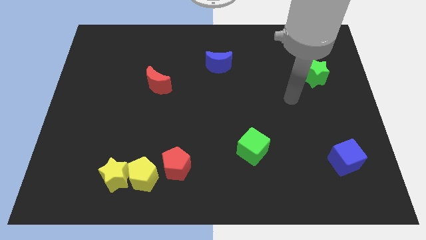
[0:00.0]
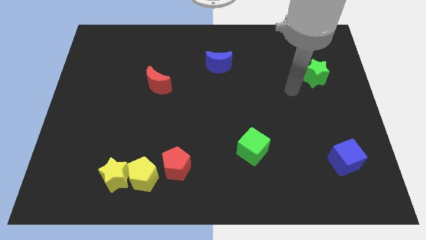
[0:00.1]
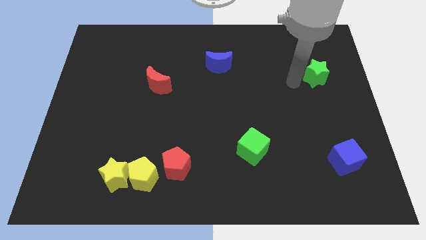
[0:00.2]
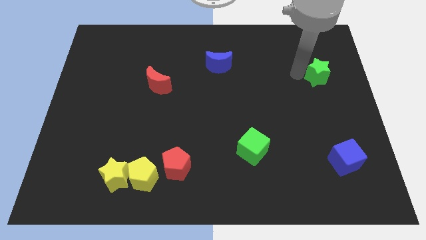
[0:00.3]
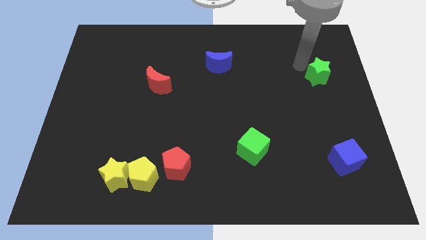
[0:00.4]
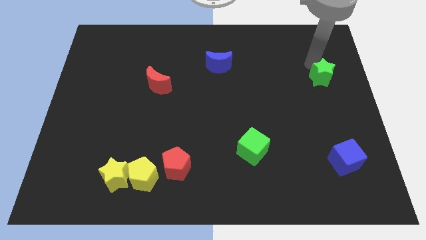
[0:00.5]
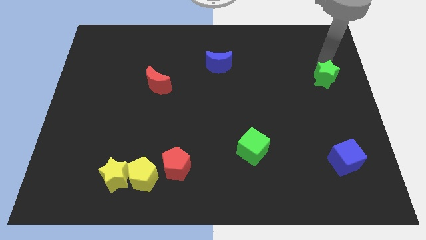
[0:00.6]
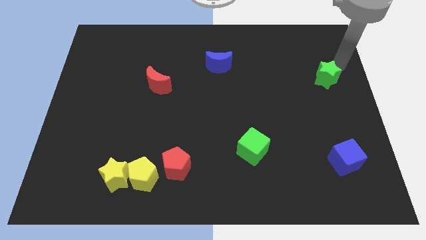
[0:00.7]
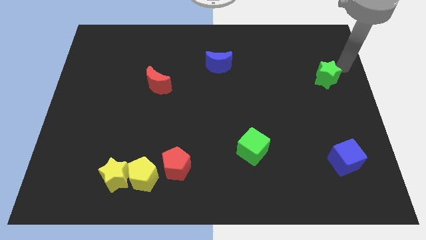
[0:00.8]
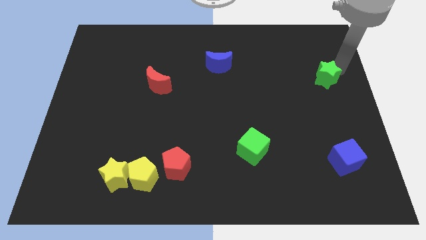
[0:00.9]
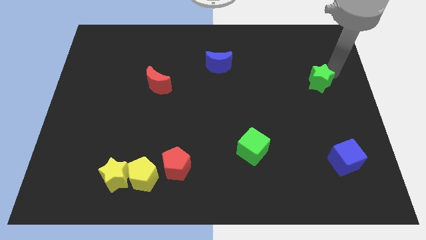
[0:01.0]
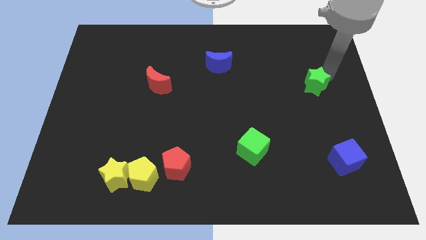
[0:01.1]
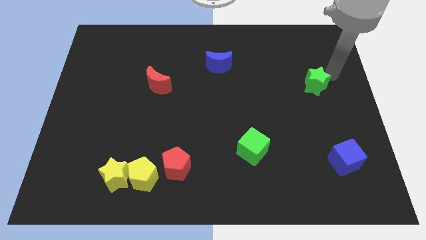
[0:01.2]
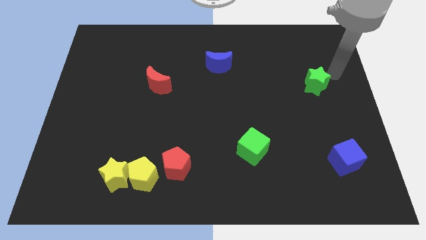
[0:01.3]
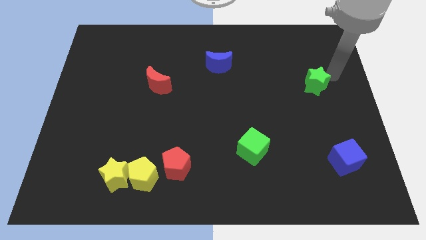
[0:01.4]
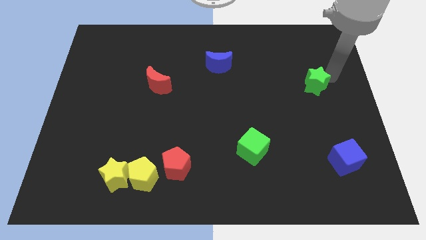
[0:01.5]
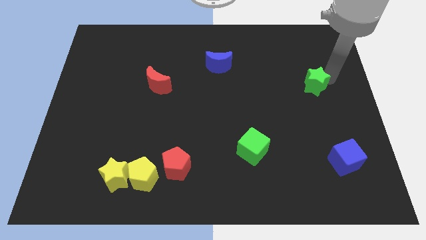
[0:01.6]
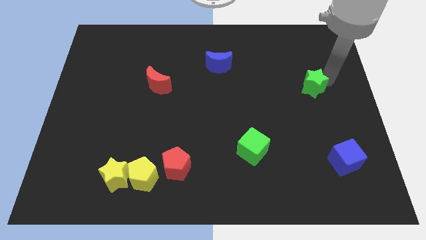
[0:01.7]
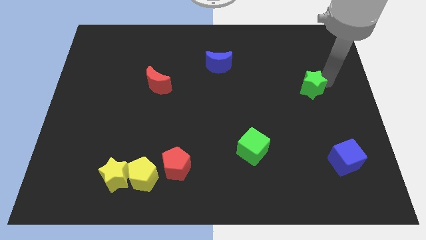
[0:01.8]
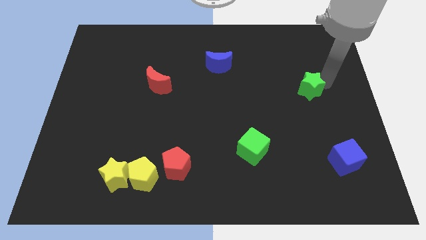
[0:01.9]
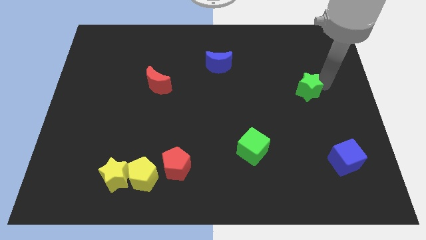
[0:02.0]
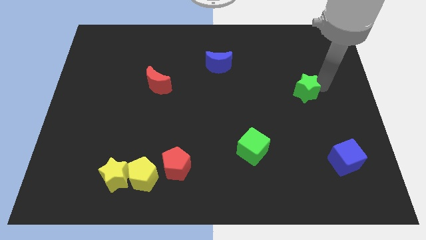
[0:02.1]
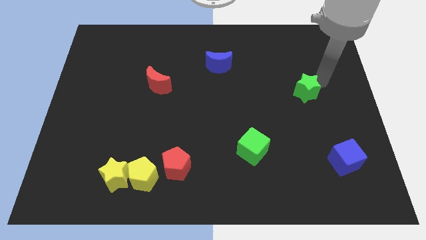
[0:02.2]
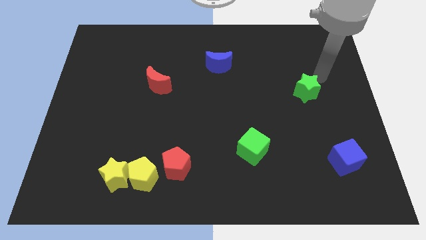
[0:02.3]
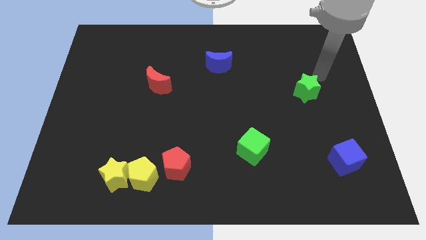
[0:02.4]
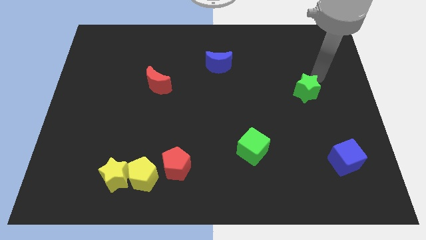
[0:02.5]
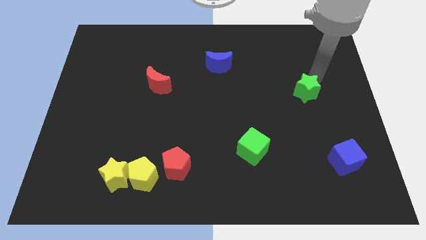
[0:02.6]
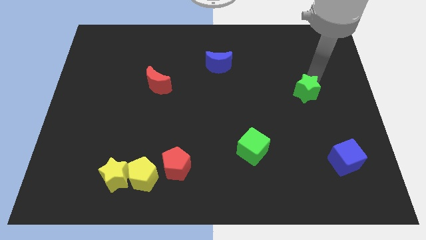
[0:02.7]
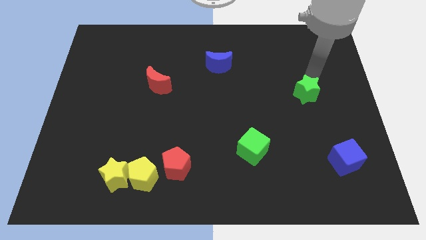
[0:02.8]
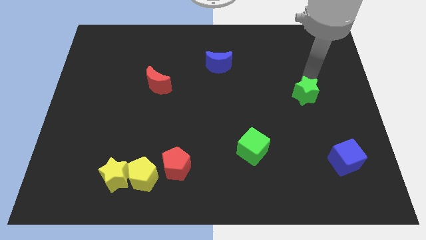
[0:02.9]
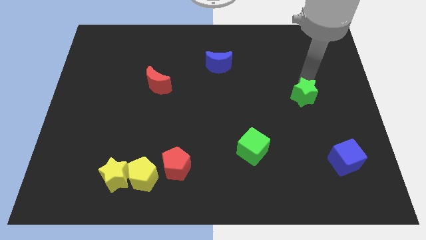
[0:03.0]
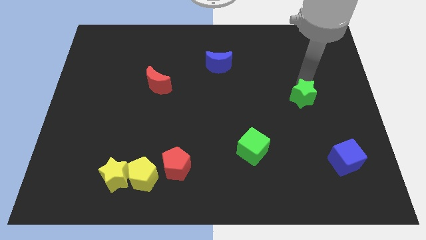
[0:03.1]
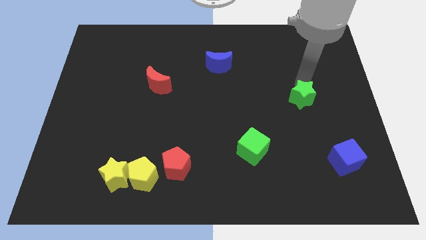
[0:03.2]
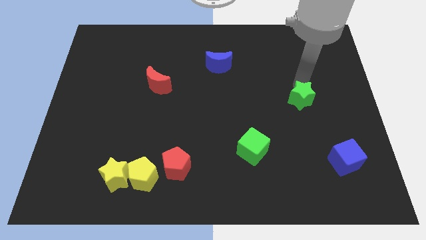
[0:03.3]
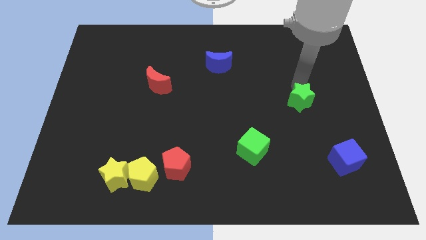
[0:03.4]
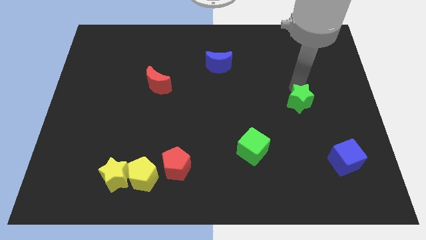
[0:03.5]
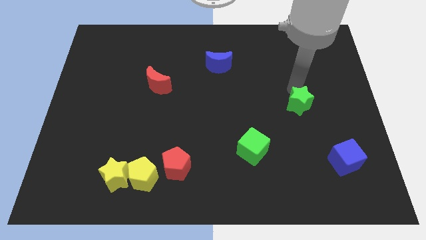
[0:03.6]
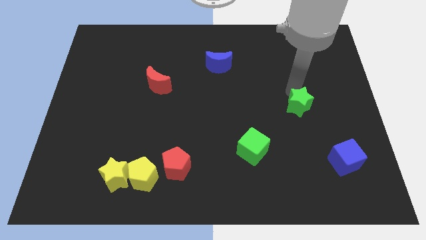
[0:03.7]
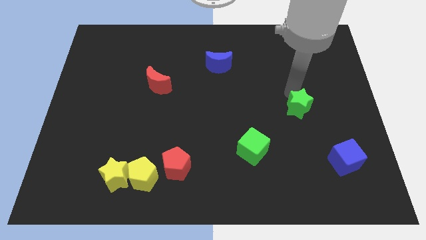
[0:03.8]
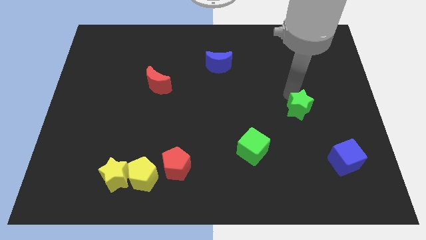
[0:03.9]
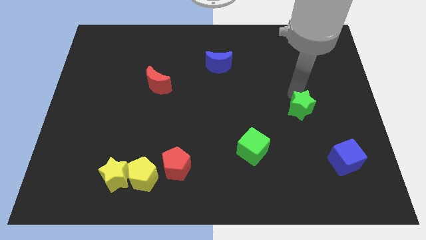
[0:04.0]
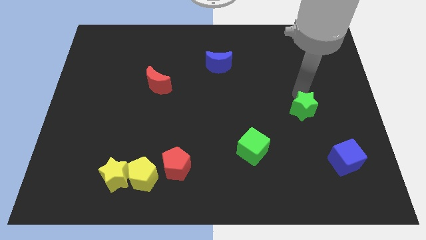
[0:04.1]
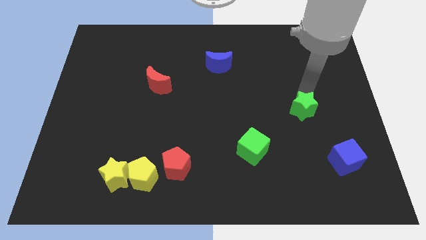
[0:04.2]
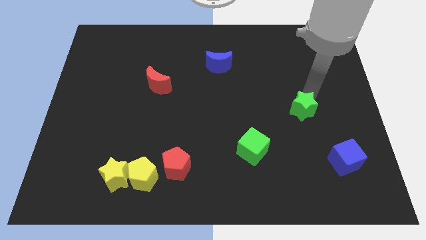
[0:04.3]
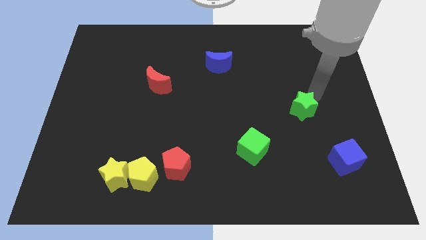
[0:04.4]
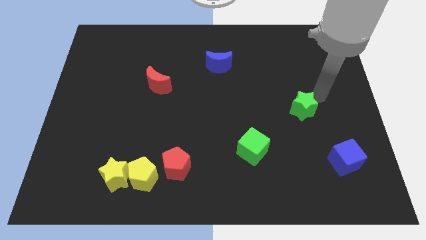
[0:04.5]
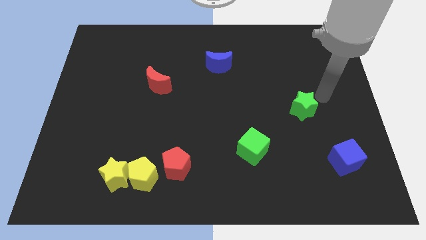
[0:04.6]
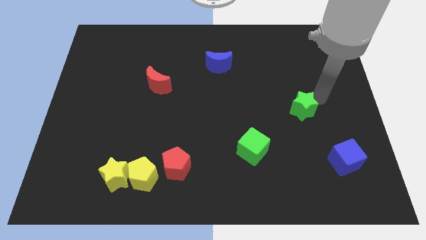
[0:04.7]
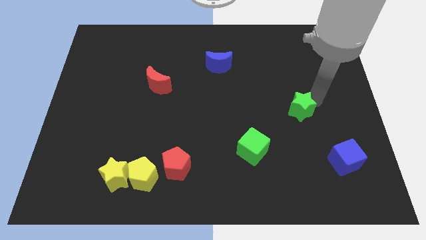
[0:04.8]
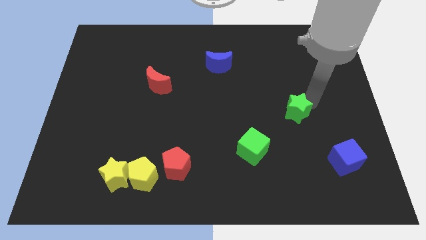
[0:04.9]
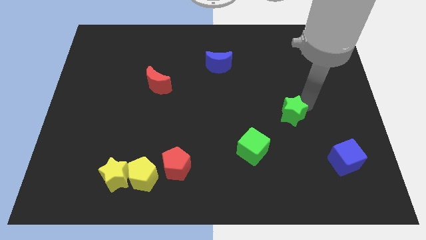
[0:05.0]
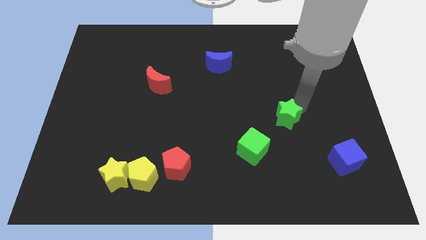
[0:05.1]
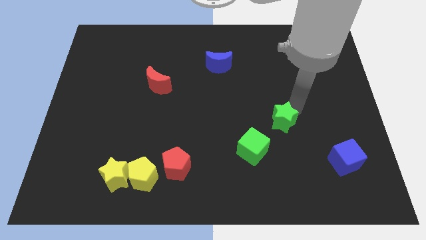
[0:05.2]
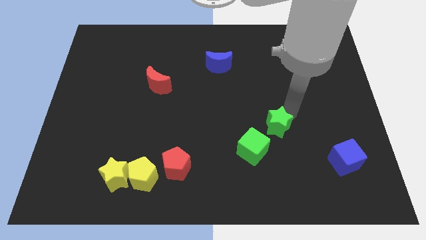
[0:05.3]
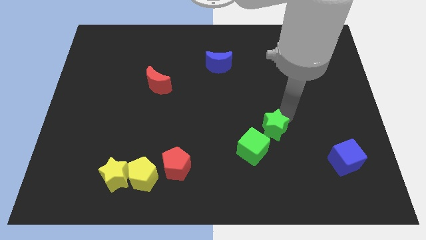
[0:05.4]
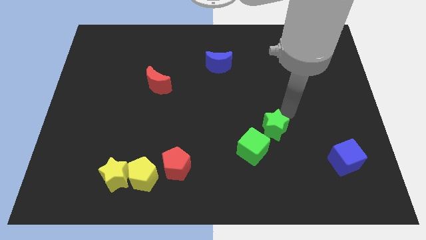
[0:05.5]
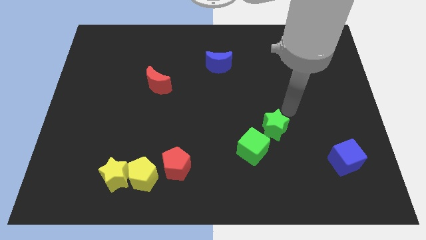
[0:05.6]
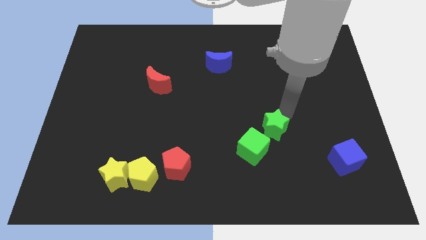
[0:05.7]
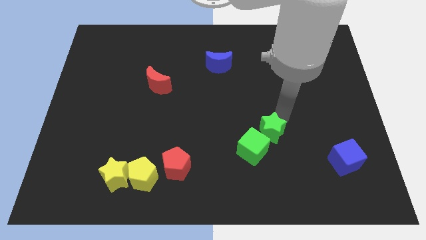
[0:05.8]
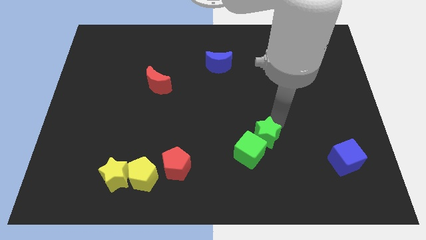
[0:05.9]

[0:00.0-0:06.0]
move the green star next to the green cube

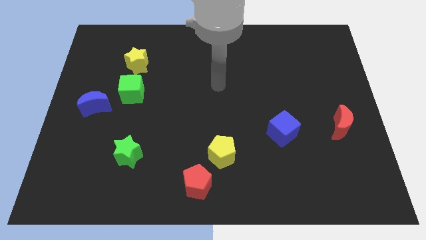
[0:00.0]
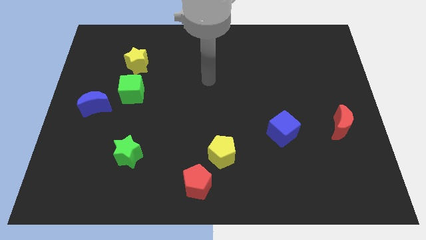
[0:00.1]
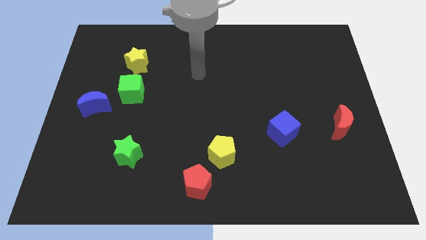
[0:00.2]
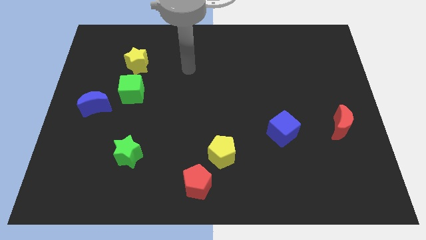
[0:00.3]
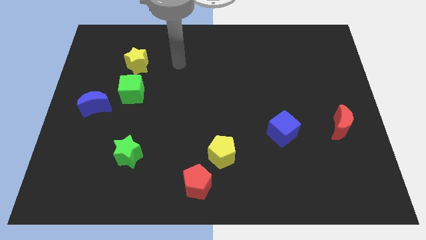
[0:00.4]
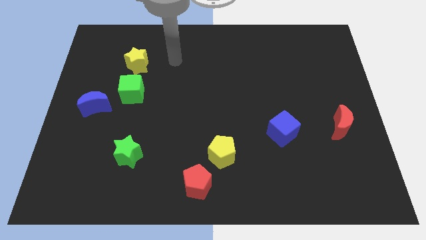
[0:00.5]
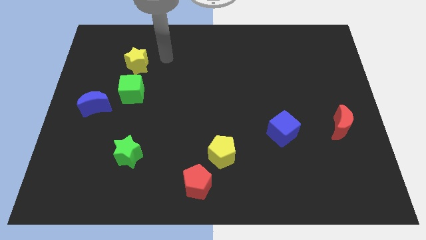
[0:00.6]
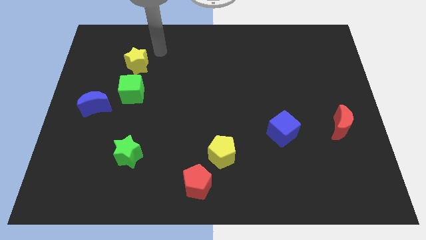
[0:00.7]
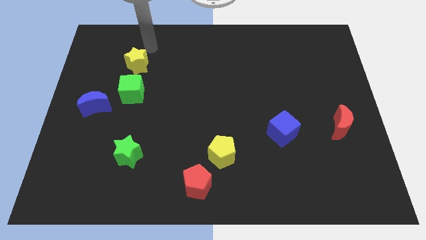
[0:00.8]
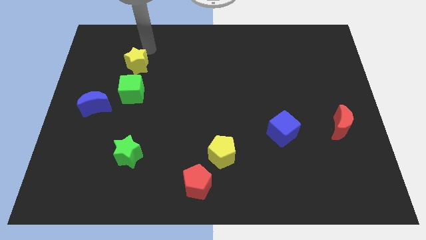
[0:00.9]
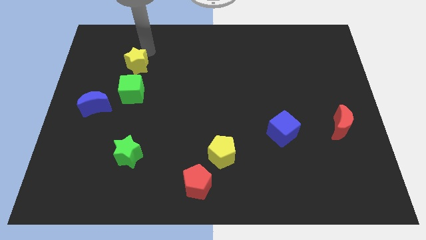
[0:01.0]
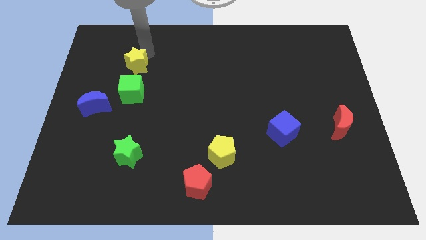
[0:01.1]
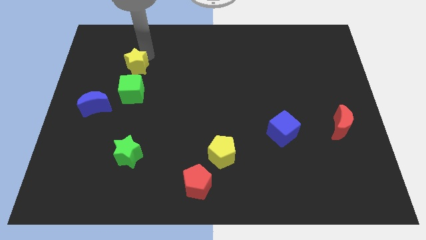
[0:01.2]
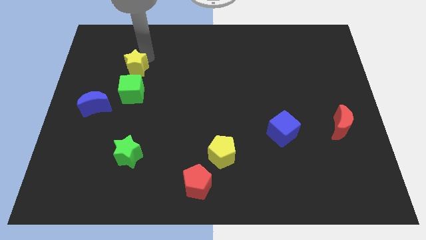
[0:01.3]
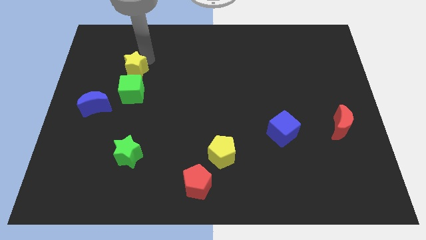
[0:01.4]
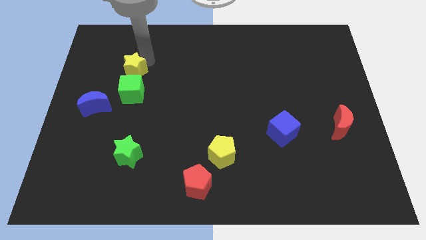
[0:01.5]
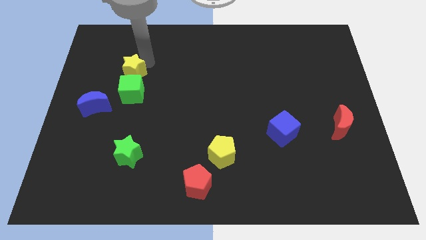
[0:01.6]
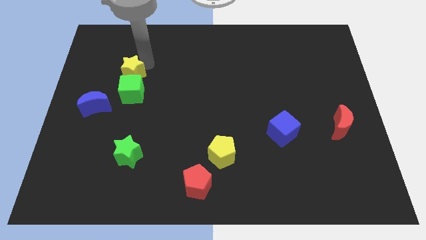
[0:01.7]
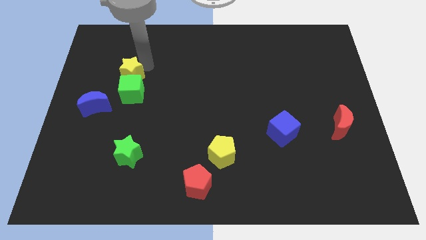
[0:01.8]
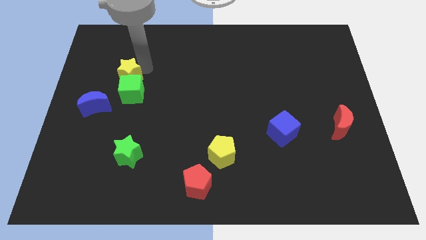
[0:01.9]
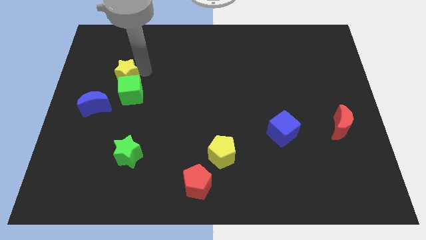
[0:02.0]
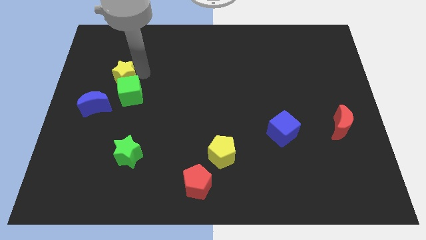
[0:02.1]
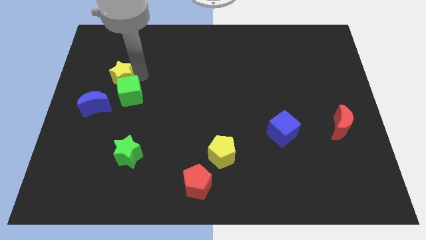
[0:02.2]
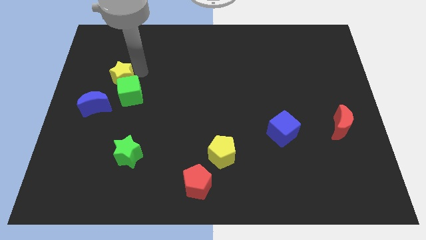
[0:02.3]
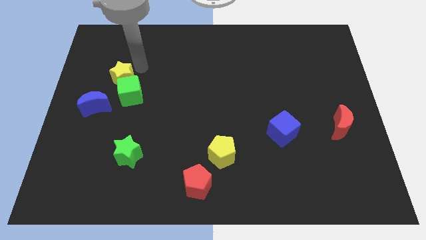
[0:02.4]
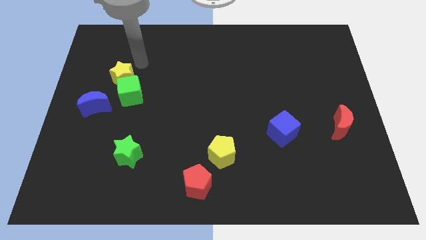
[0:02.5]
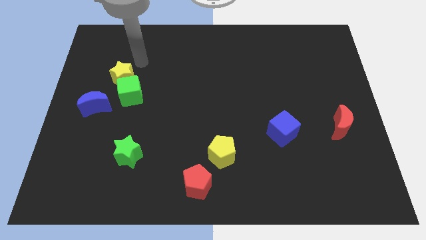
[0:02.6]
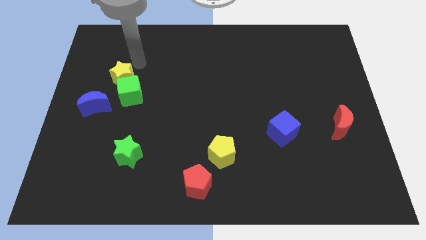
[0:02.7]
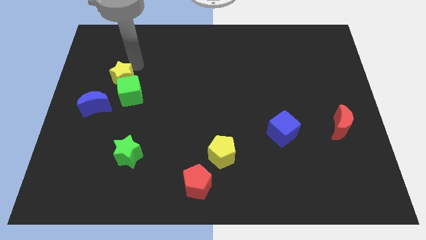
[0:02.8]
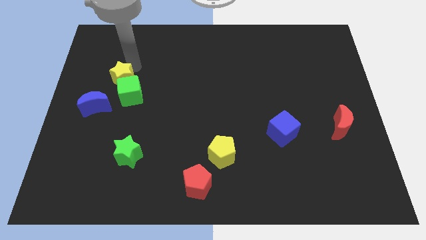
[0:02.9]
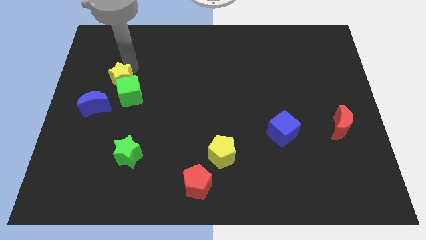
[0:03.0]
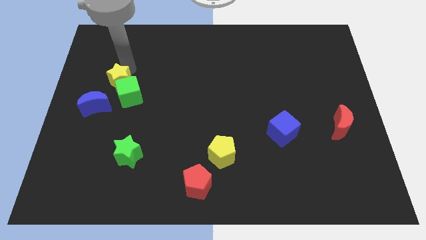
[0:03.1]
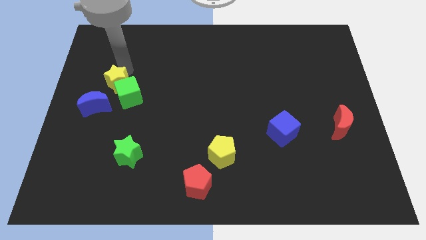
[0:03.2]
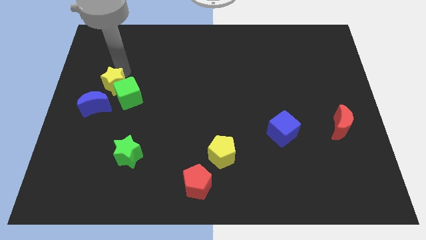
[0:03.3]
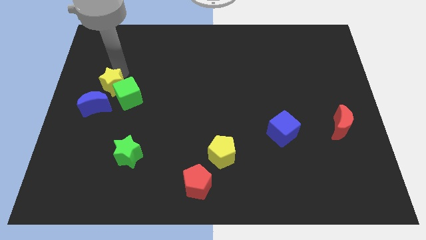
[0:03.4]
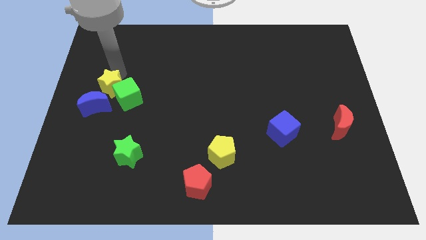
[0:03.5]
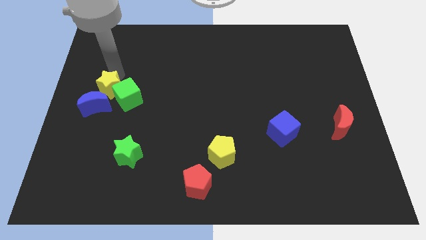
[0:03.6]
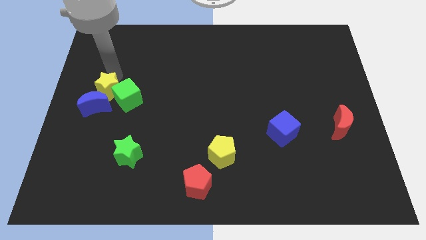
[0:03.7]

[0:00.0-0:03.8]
slide the yellow star towards the blue moon
